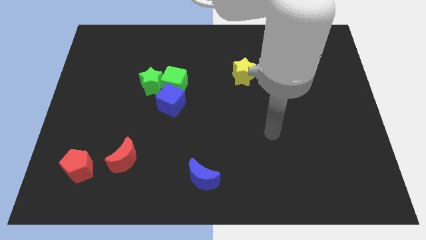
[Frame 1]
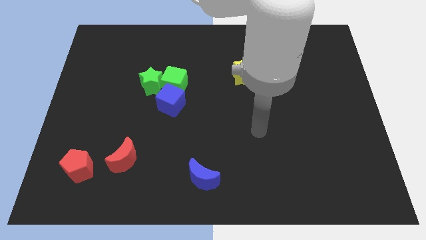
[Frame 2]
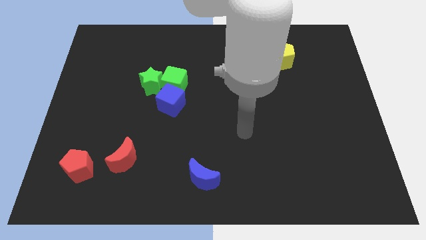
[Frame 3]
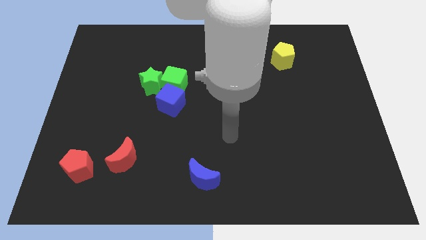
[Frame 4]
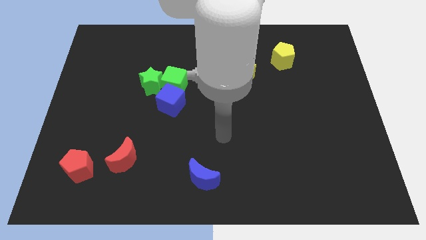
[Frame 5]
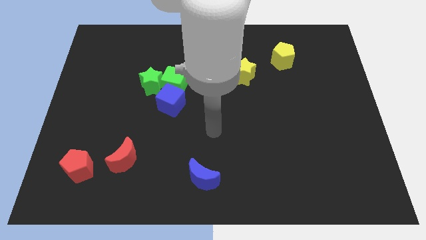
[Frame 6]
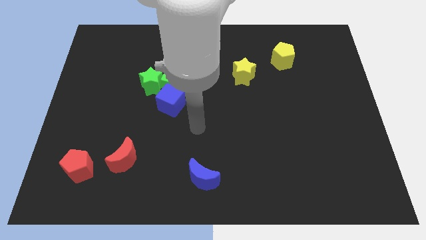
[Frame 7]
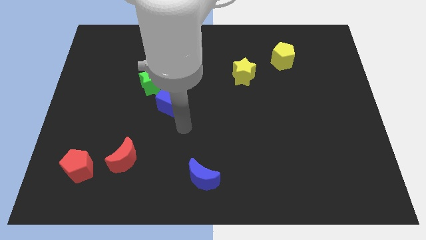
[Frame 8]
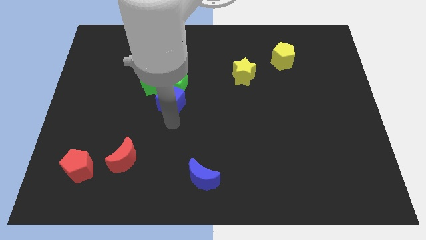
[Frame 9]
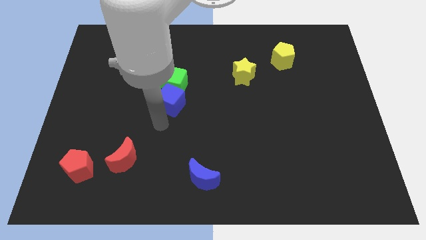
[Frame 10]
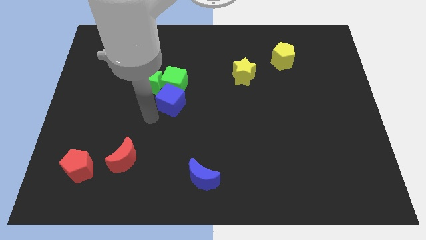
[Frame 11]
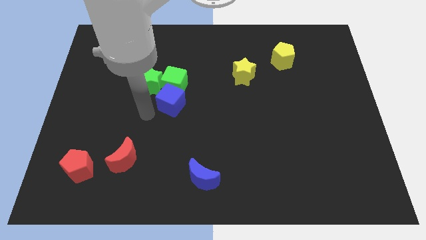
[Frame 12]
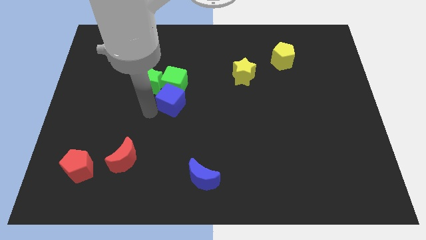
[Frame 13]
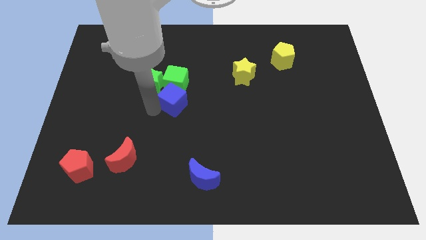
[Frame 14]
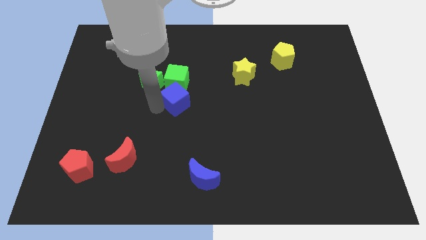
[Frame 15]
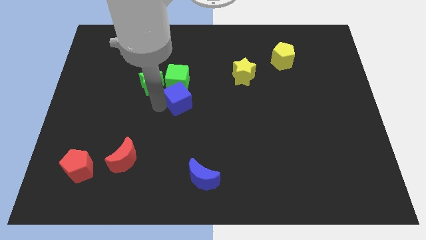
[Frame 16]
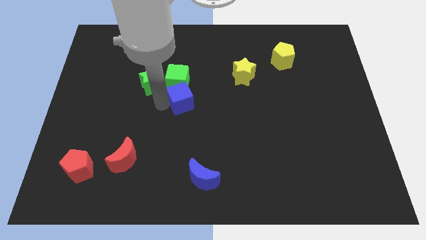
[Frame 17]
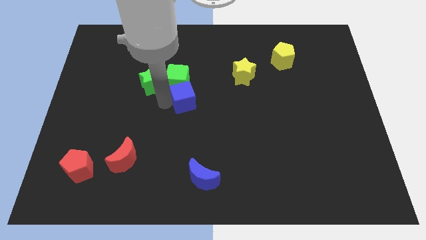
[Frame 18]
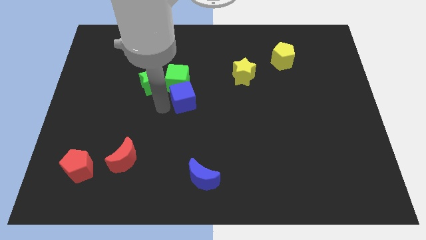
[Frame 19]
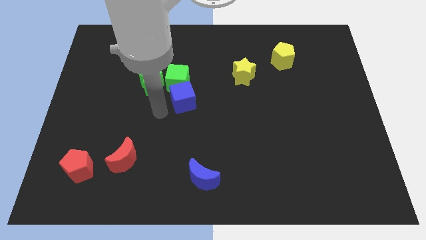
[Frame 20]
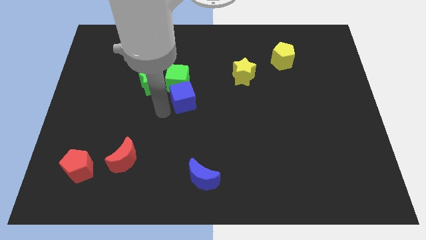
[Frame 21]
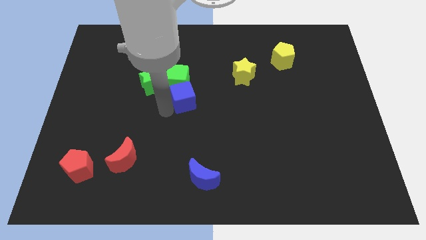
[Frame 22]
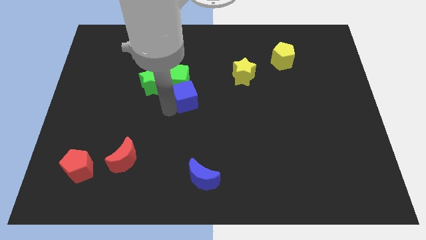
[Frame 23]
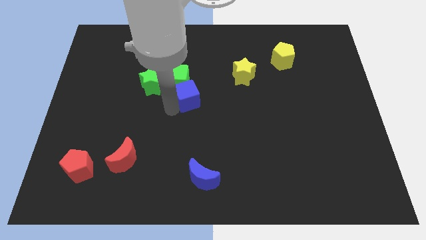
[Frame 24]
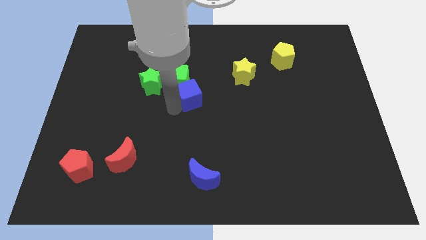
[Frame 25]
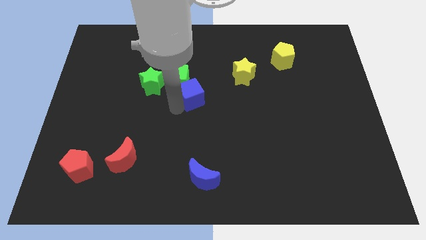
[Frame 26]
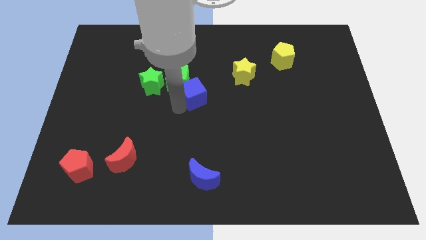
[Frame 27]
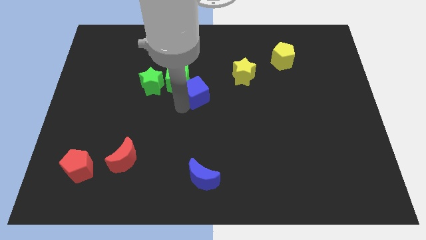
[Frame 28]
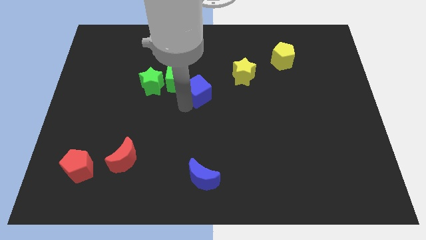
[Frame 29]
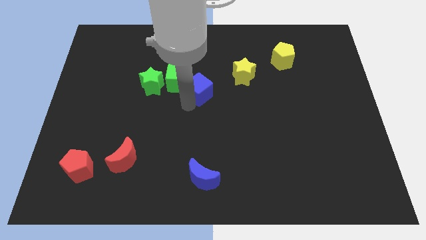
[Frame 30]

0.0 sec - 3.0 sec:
push the blue cube somewhat diagonally up and to the right

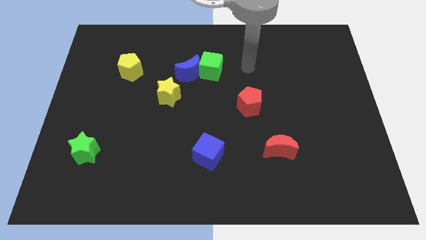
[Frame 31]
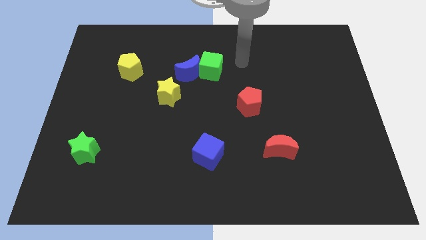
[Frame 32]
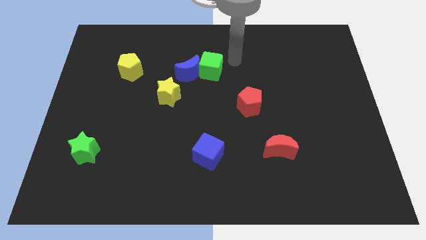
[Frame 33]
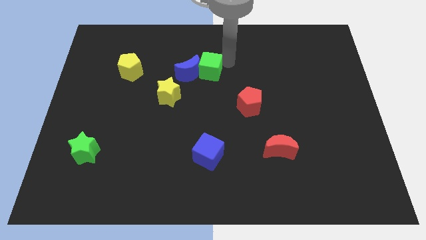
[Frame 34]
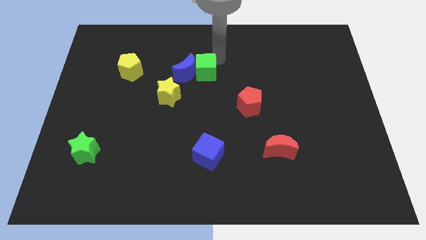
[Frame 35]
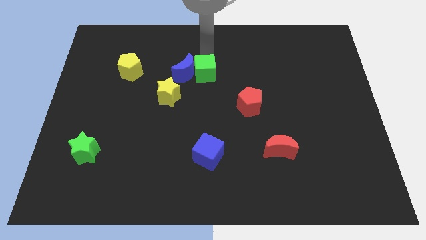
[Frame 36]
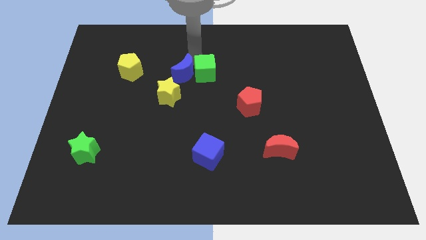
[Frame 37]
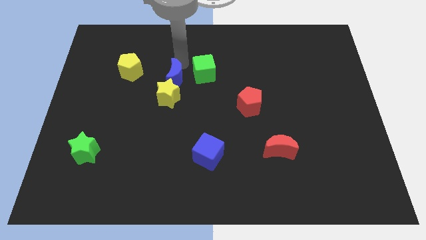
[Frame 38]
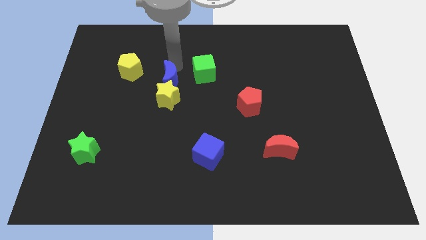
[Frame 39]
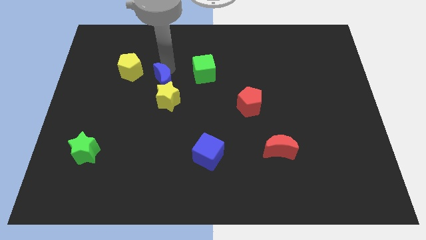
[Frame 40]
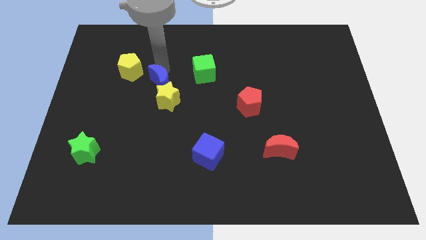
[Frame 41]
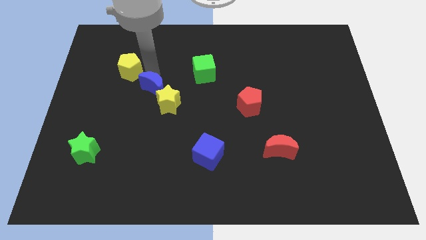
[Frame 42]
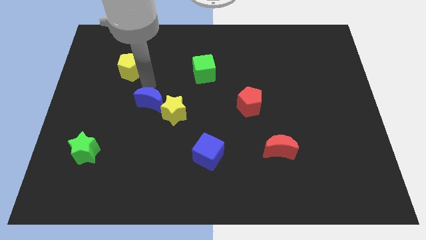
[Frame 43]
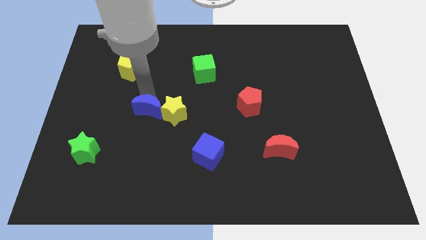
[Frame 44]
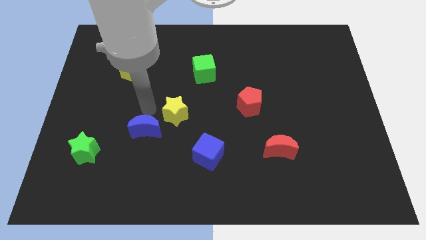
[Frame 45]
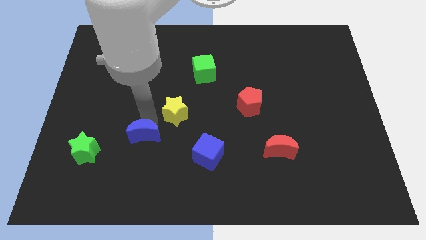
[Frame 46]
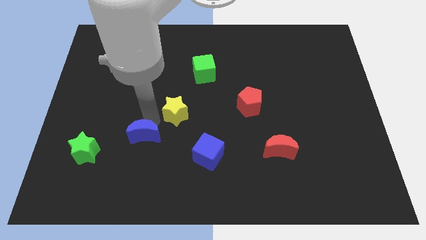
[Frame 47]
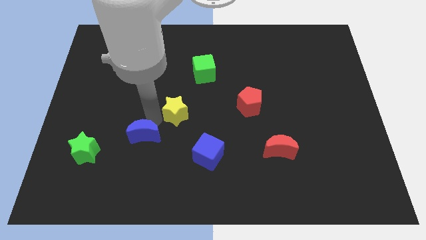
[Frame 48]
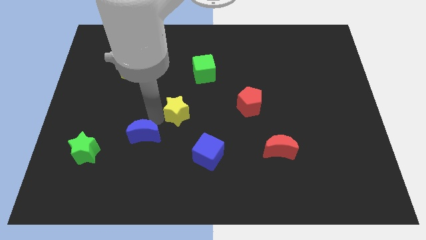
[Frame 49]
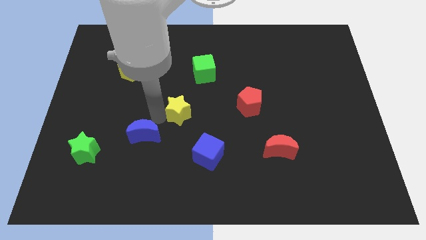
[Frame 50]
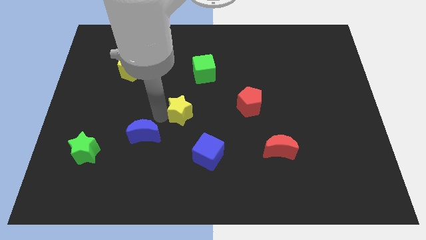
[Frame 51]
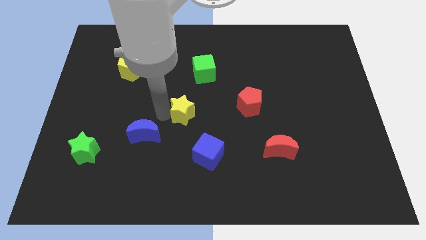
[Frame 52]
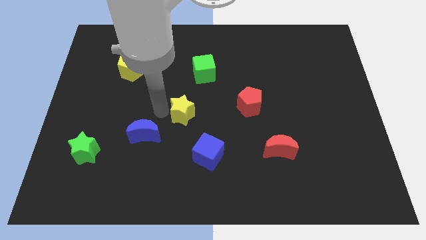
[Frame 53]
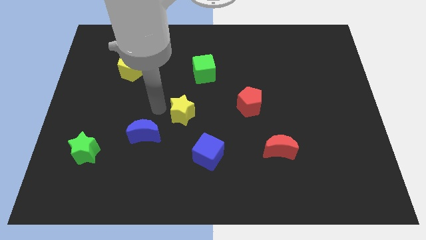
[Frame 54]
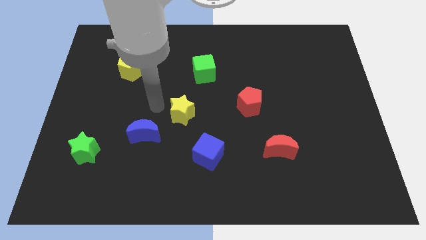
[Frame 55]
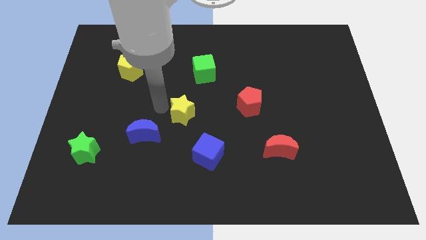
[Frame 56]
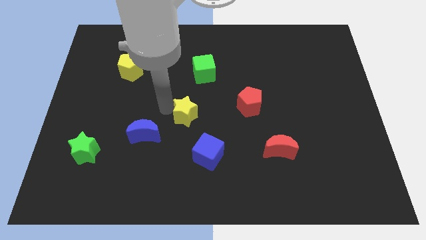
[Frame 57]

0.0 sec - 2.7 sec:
slightly push the yellow star down and right

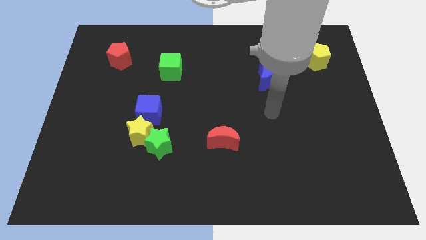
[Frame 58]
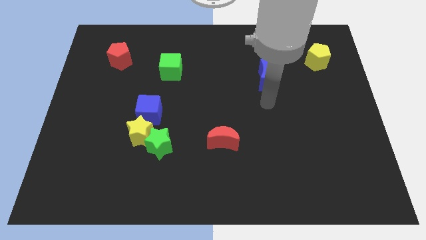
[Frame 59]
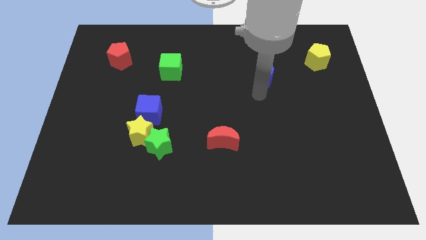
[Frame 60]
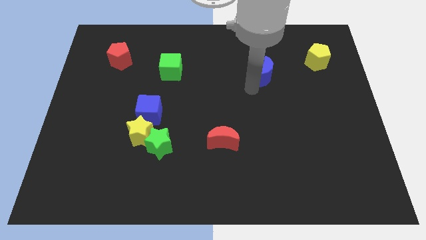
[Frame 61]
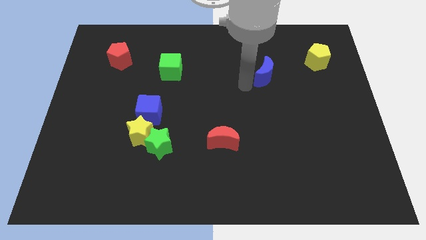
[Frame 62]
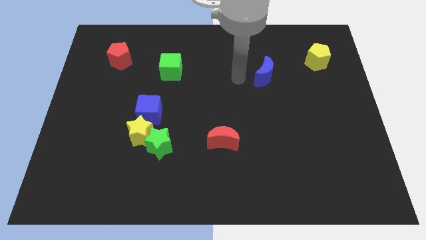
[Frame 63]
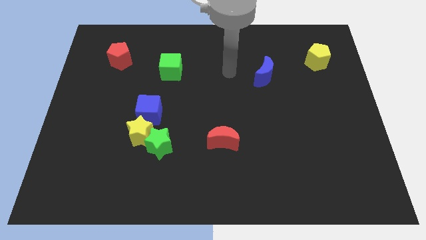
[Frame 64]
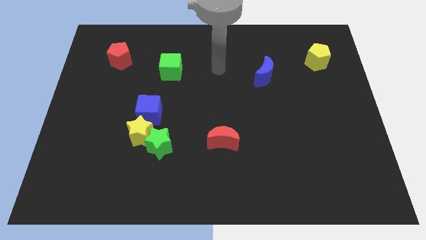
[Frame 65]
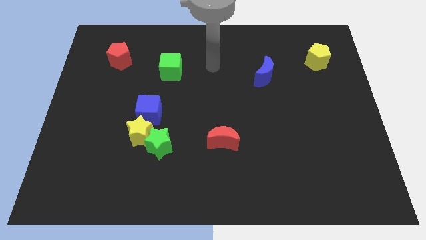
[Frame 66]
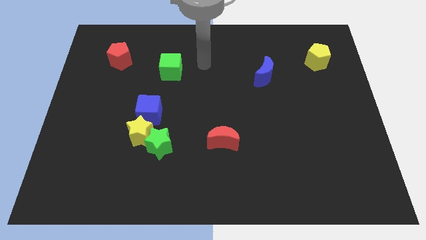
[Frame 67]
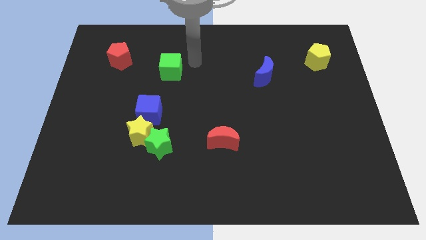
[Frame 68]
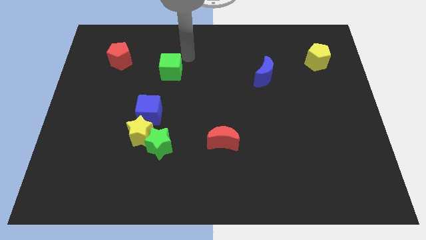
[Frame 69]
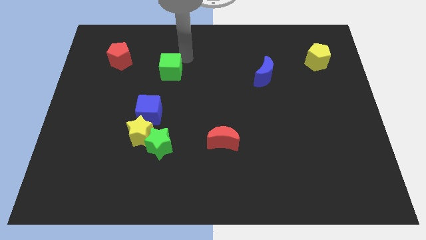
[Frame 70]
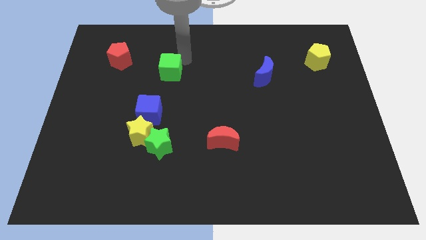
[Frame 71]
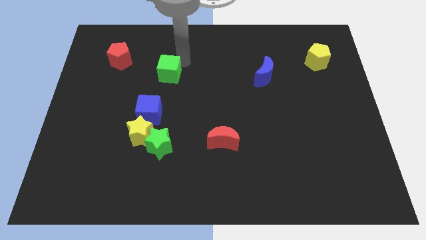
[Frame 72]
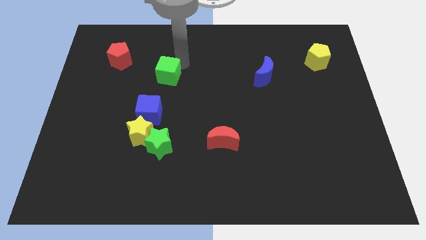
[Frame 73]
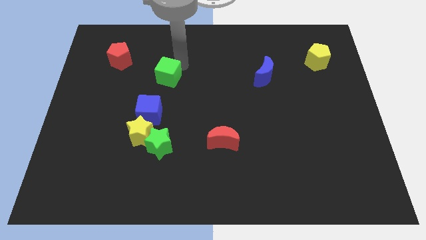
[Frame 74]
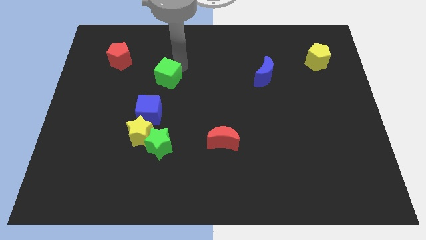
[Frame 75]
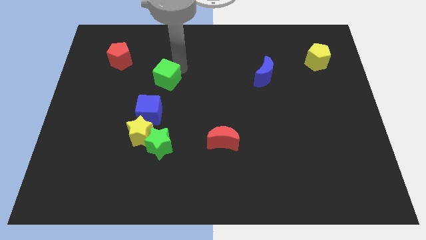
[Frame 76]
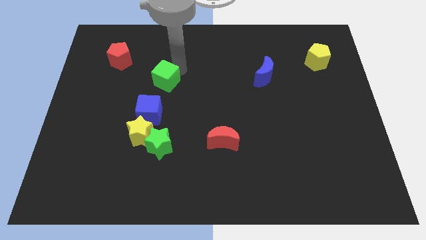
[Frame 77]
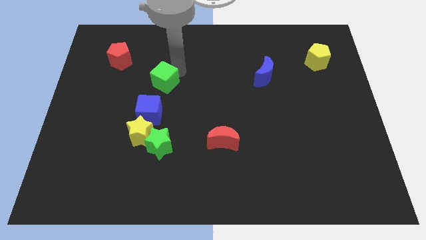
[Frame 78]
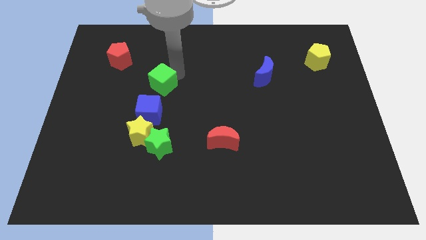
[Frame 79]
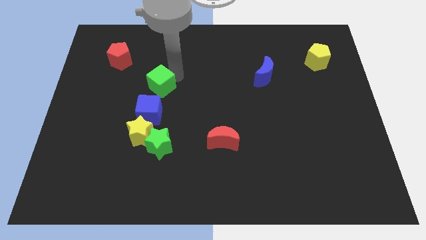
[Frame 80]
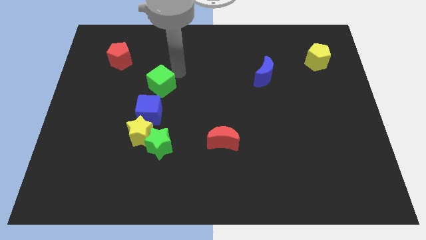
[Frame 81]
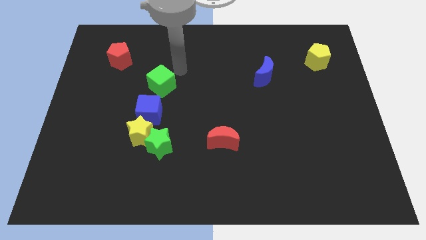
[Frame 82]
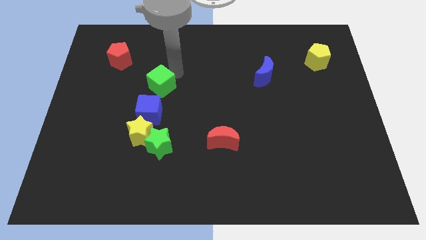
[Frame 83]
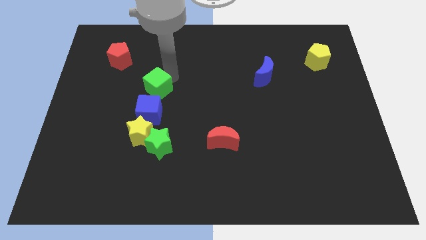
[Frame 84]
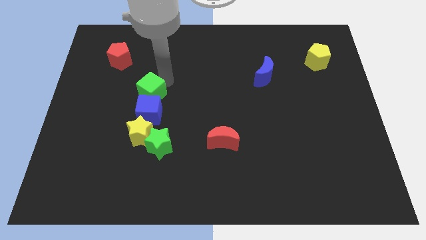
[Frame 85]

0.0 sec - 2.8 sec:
slightly slide the green cube downwards and then left

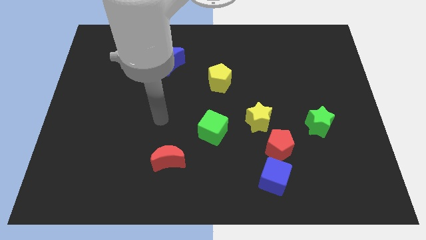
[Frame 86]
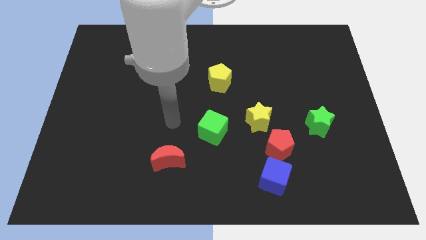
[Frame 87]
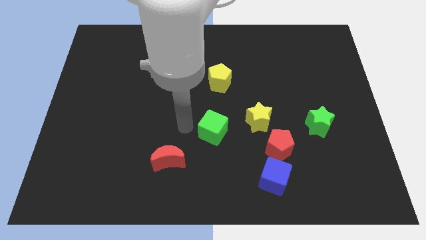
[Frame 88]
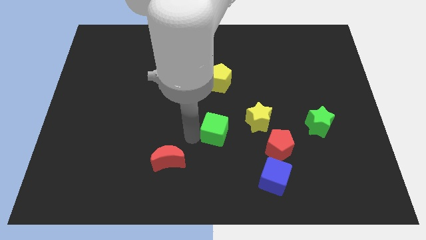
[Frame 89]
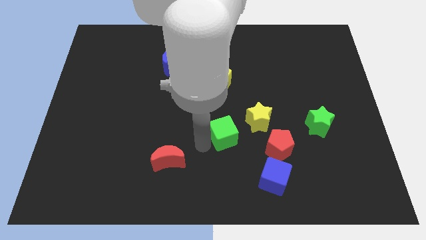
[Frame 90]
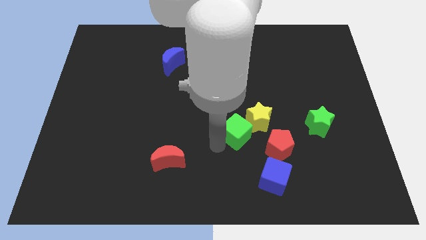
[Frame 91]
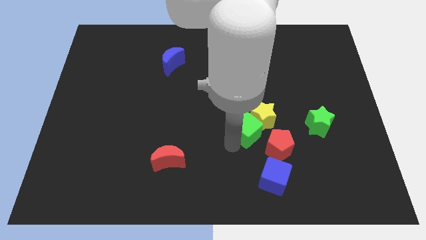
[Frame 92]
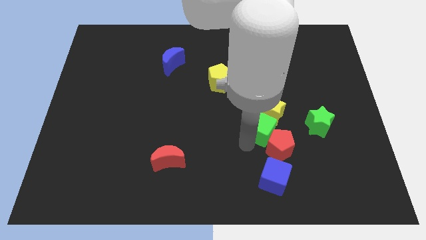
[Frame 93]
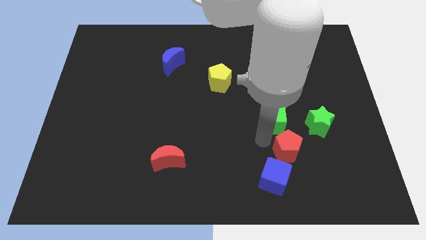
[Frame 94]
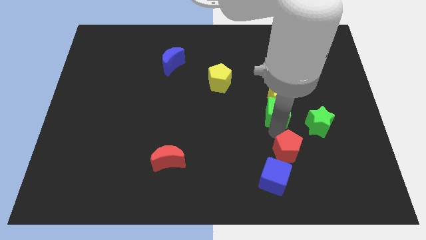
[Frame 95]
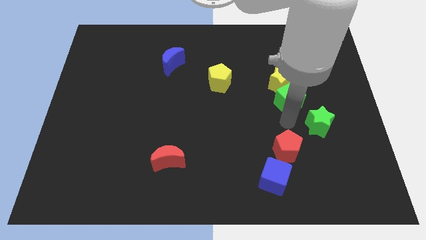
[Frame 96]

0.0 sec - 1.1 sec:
move the yellow star upwards a little
